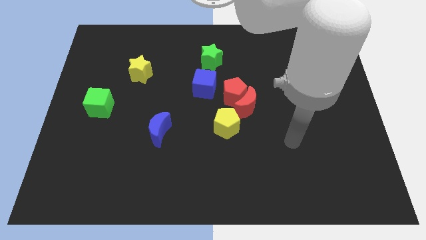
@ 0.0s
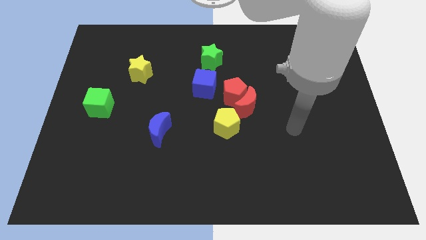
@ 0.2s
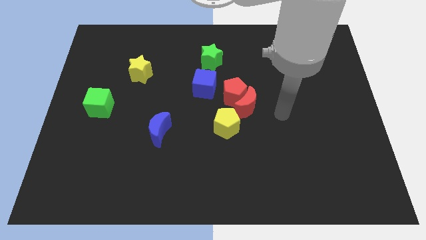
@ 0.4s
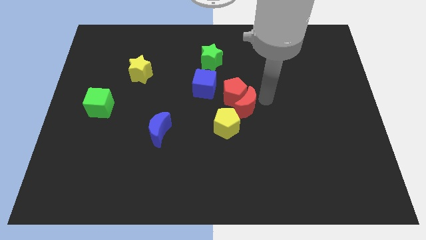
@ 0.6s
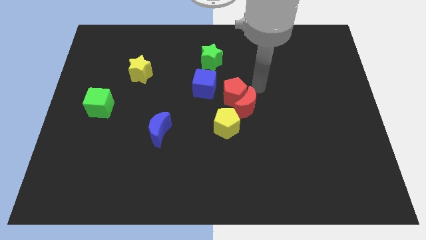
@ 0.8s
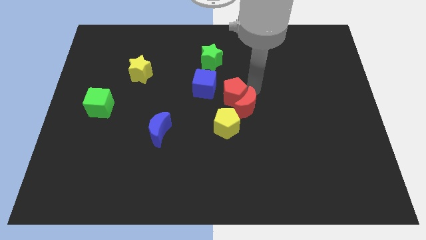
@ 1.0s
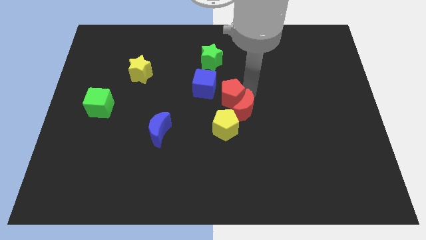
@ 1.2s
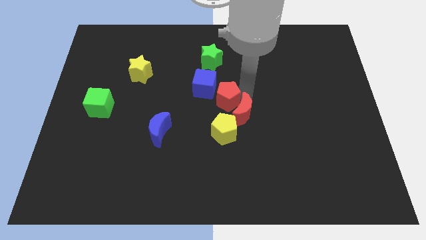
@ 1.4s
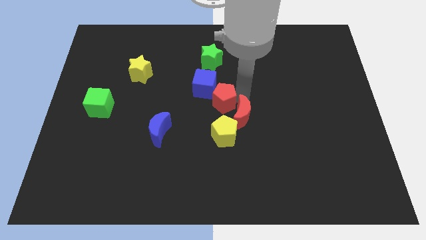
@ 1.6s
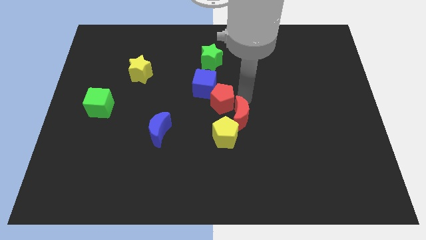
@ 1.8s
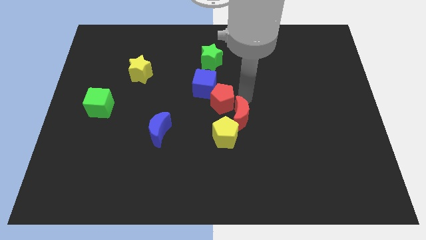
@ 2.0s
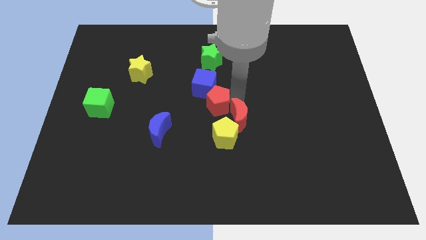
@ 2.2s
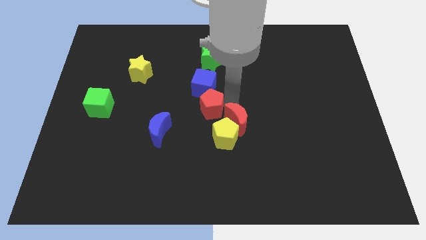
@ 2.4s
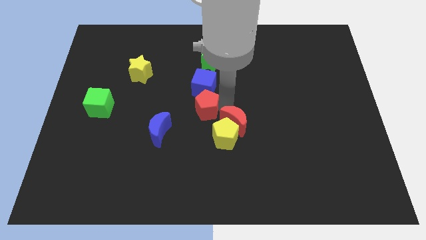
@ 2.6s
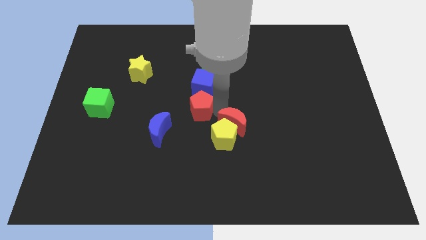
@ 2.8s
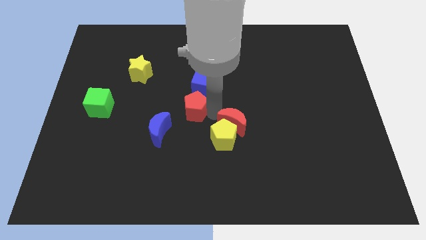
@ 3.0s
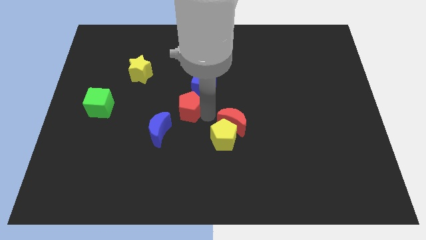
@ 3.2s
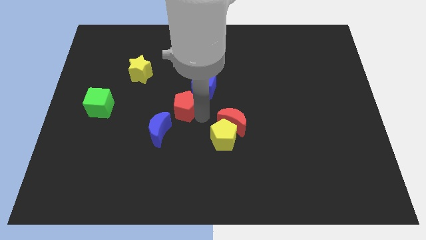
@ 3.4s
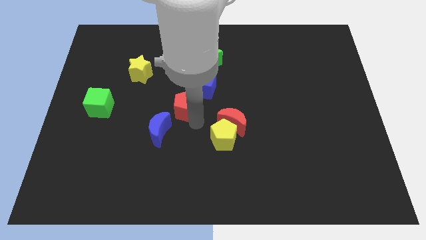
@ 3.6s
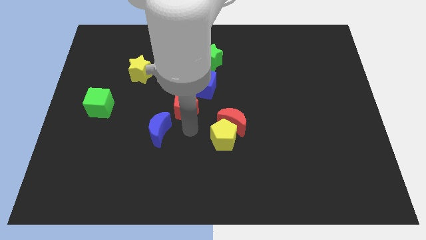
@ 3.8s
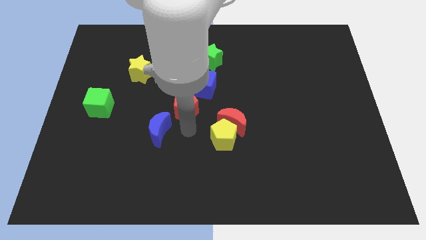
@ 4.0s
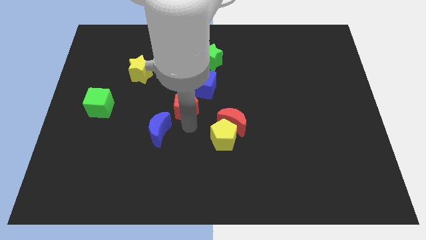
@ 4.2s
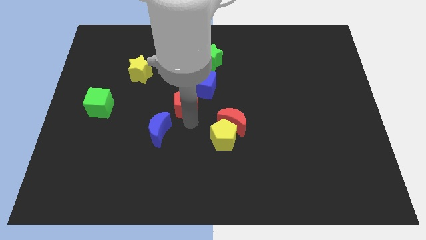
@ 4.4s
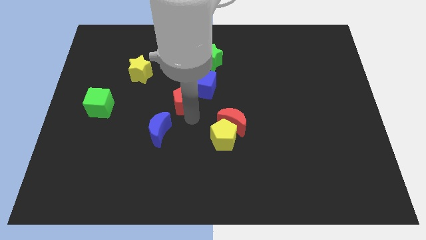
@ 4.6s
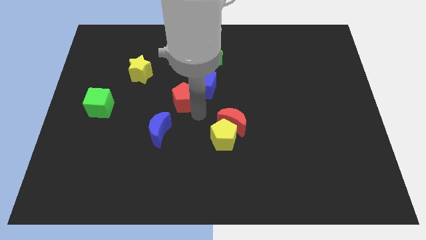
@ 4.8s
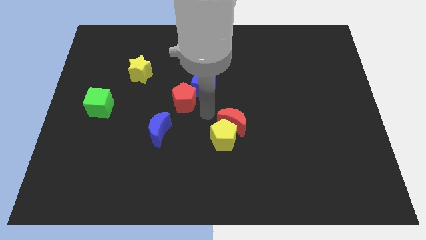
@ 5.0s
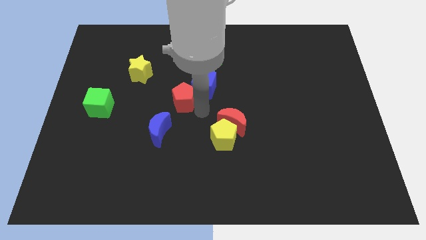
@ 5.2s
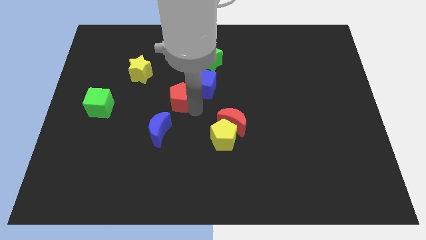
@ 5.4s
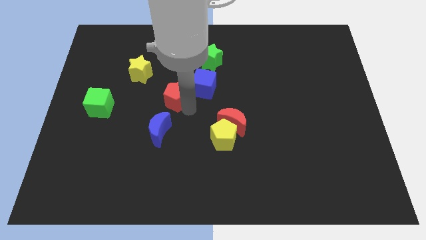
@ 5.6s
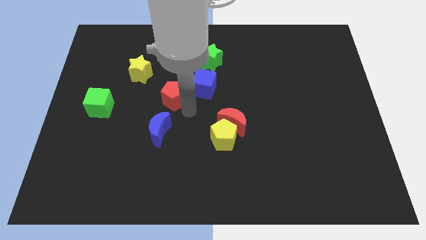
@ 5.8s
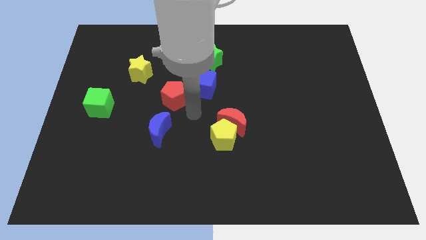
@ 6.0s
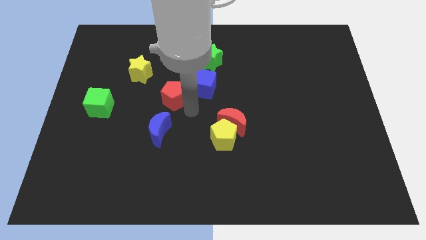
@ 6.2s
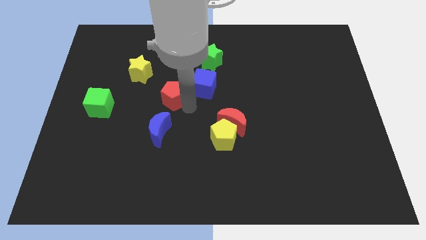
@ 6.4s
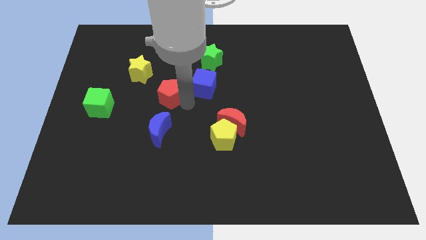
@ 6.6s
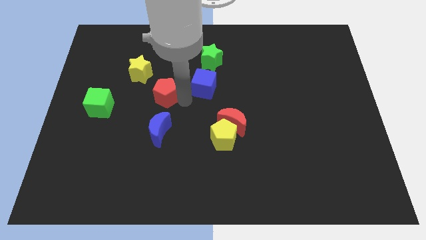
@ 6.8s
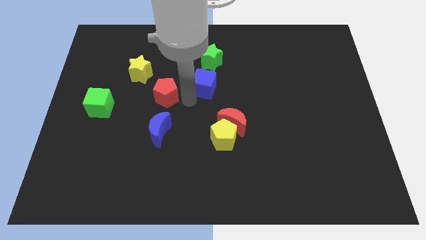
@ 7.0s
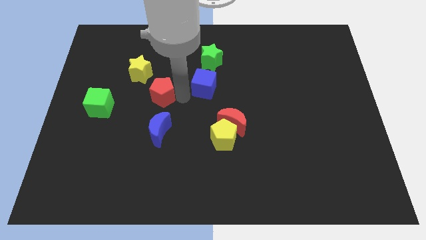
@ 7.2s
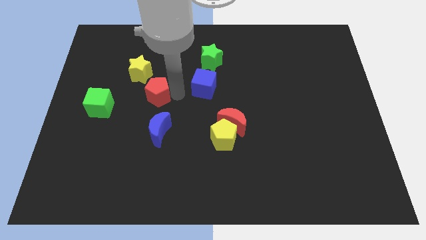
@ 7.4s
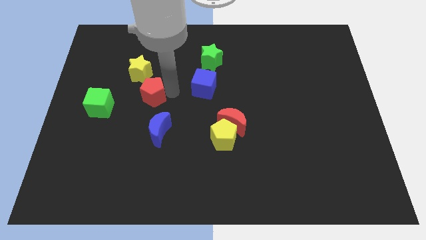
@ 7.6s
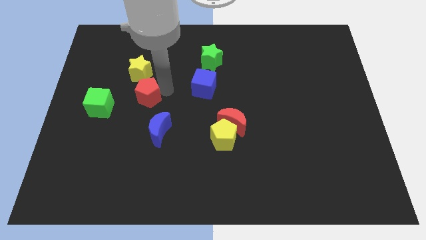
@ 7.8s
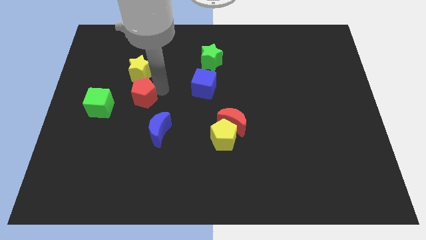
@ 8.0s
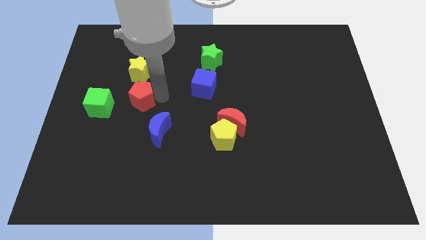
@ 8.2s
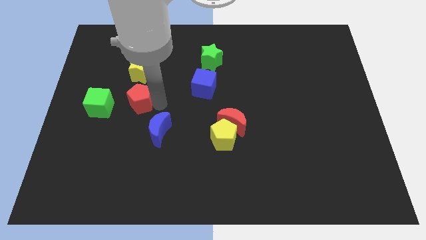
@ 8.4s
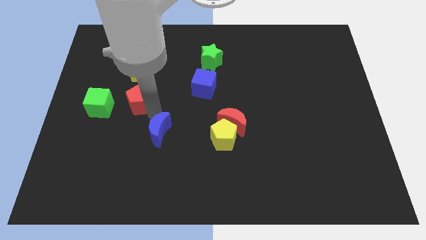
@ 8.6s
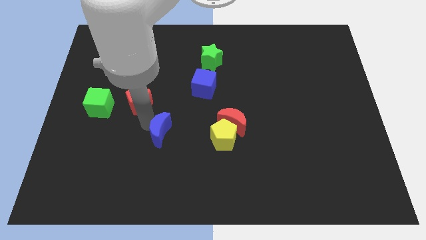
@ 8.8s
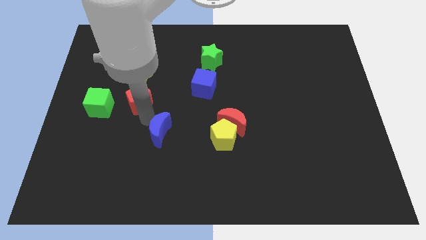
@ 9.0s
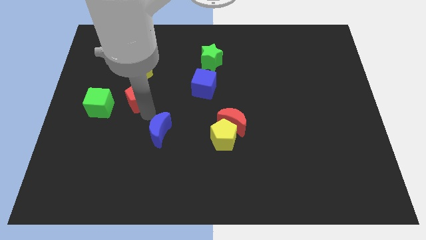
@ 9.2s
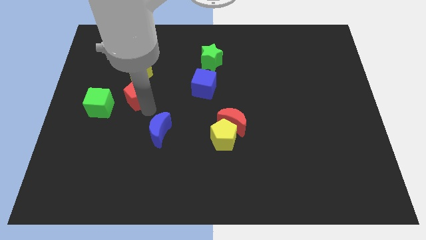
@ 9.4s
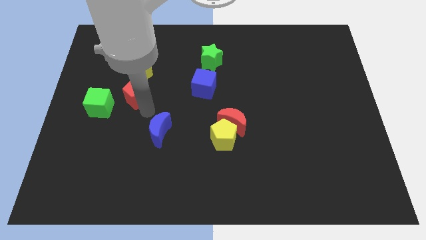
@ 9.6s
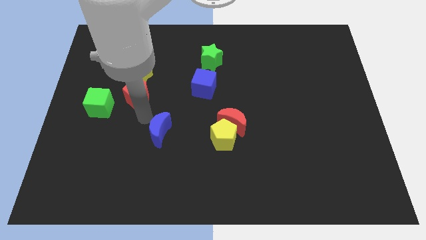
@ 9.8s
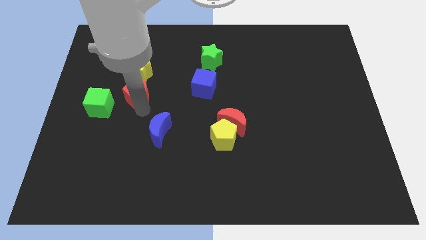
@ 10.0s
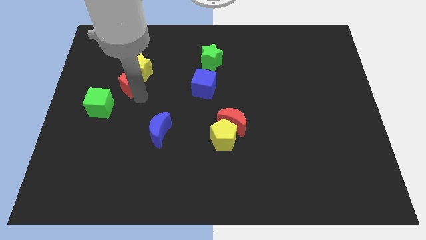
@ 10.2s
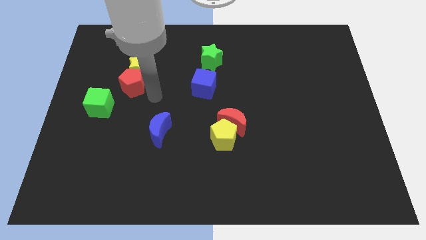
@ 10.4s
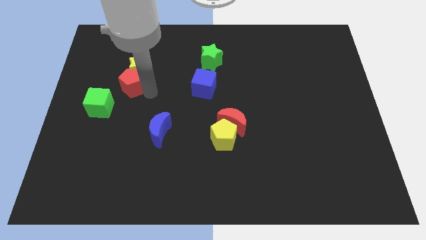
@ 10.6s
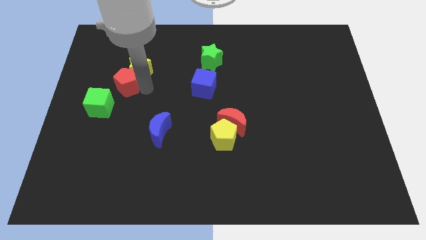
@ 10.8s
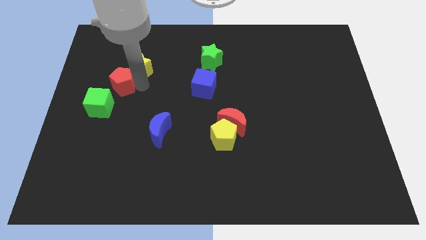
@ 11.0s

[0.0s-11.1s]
slide the red pentagon to the top side of the green cube

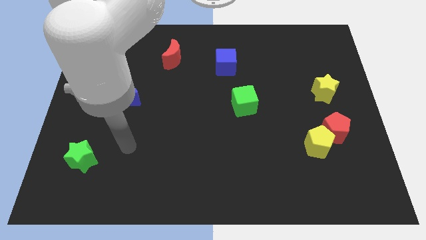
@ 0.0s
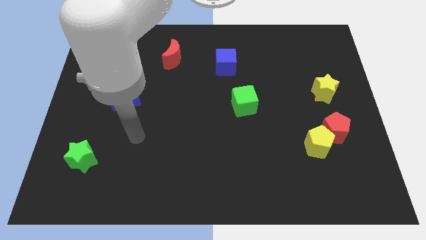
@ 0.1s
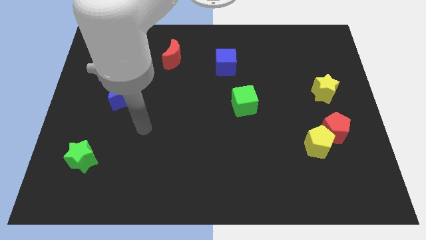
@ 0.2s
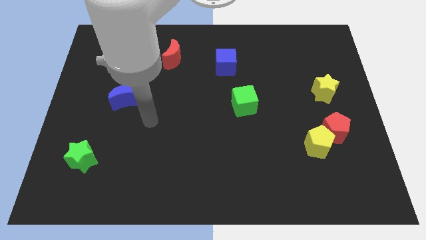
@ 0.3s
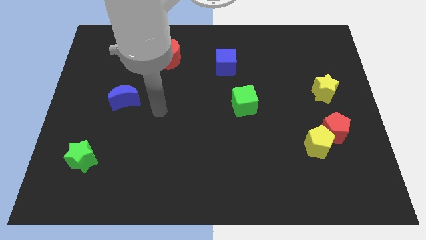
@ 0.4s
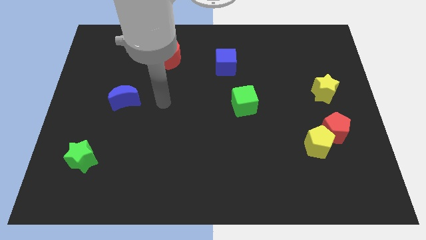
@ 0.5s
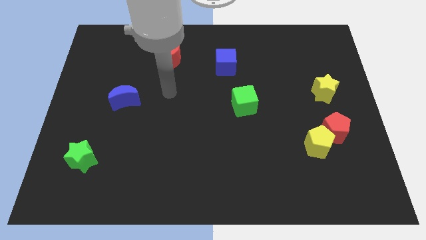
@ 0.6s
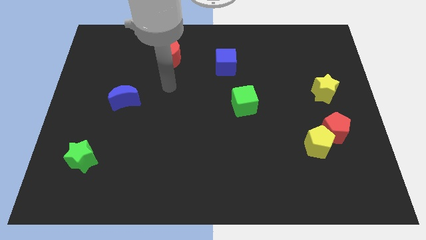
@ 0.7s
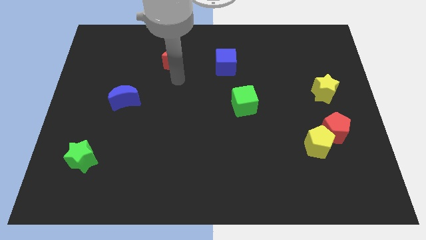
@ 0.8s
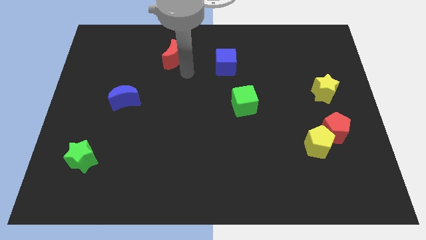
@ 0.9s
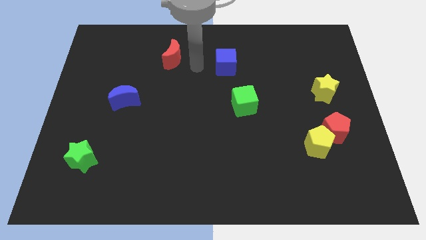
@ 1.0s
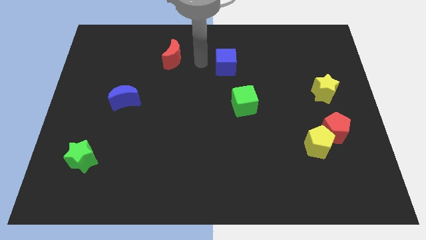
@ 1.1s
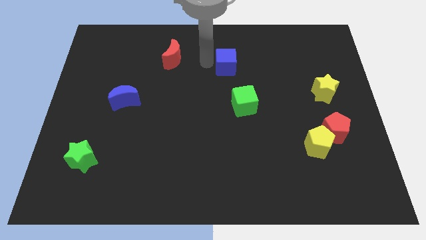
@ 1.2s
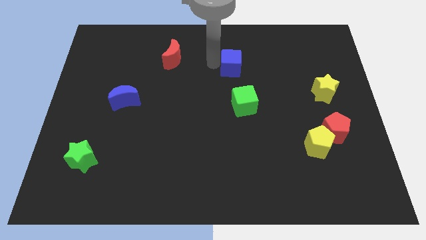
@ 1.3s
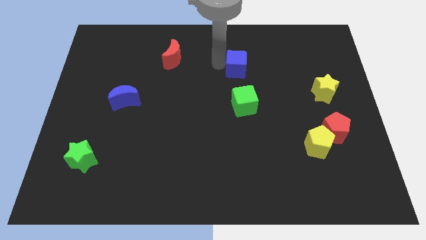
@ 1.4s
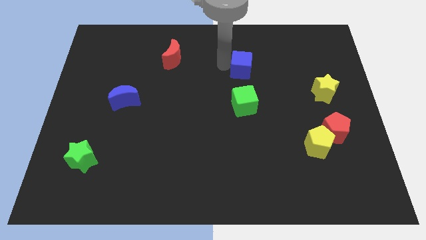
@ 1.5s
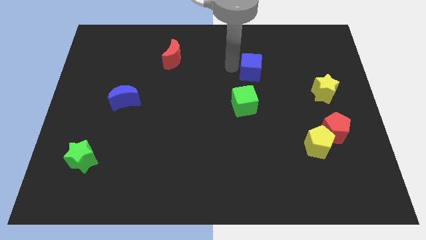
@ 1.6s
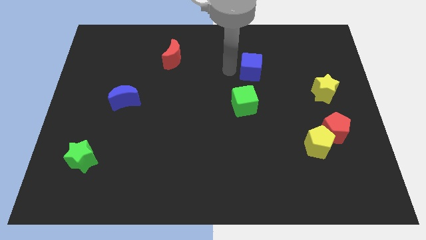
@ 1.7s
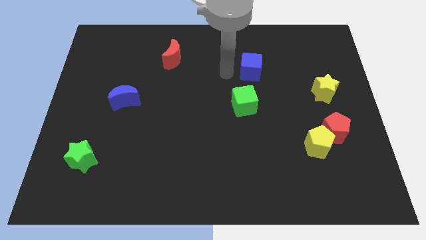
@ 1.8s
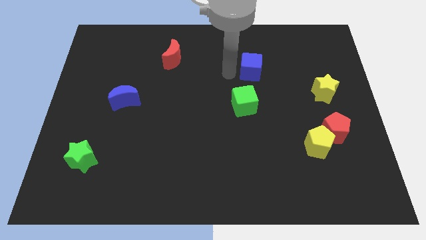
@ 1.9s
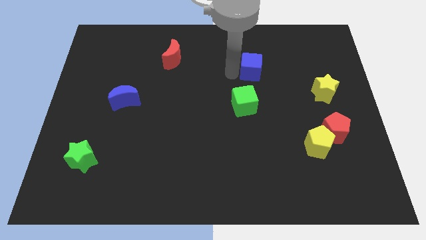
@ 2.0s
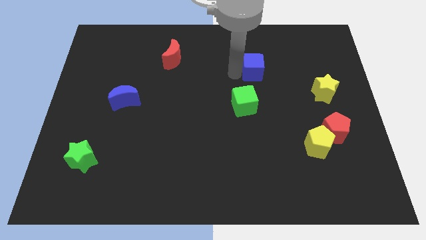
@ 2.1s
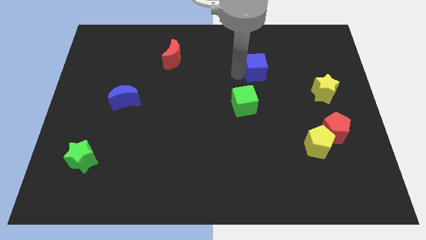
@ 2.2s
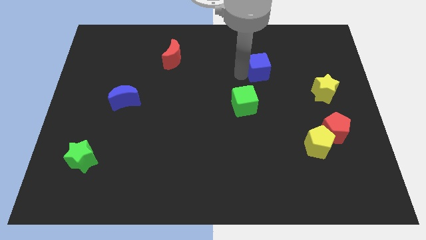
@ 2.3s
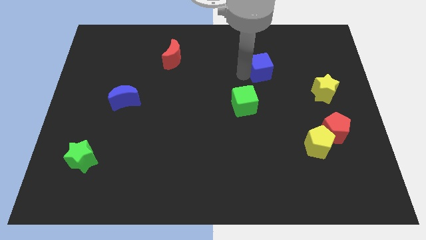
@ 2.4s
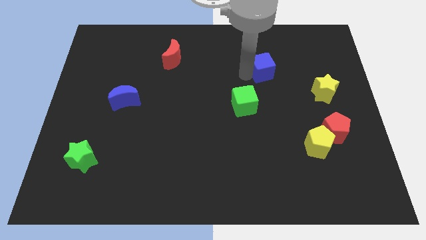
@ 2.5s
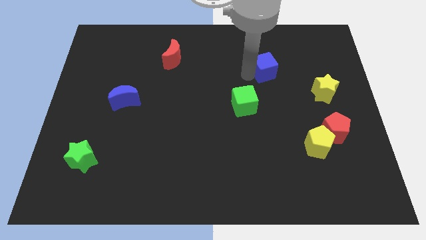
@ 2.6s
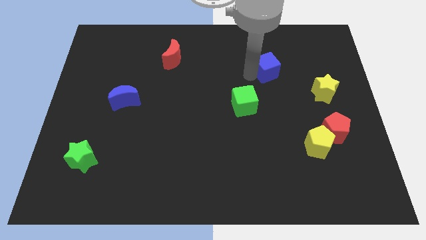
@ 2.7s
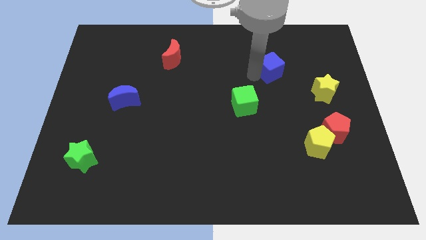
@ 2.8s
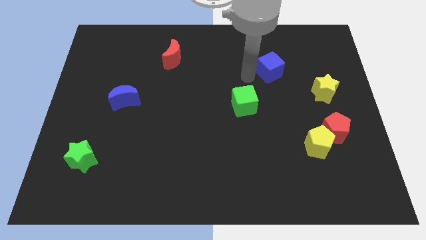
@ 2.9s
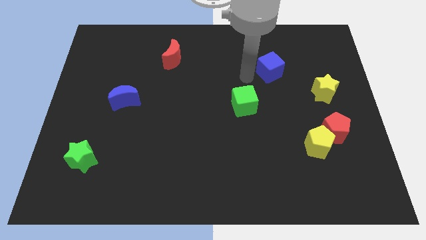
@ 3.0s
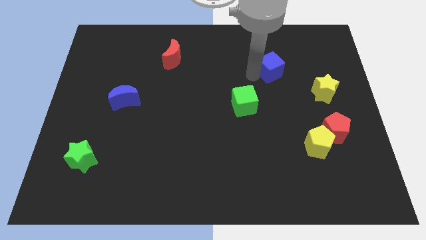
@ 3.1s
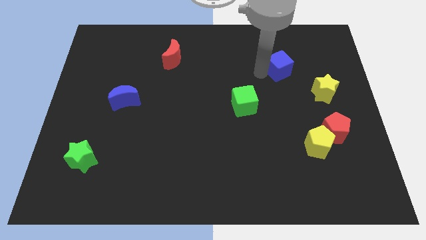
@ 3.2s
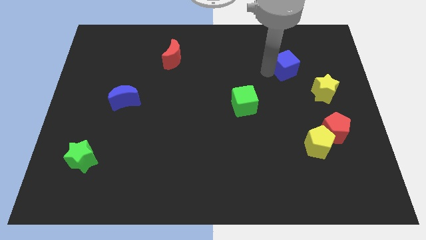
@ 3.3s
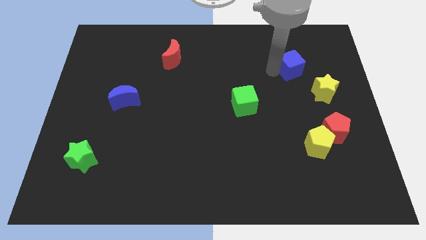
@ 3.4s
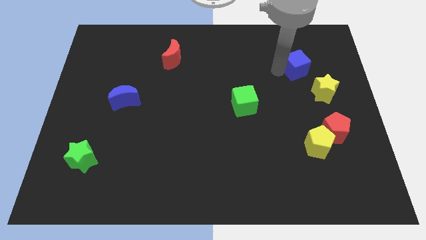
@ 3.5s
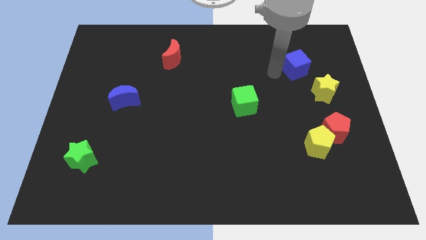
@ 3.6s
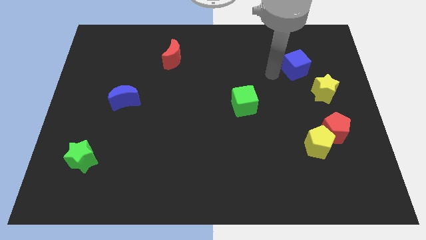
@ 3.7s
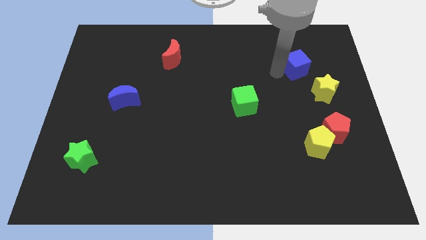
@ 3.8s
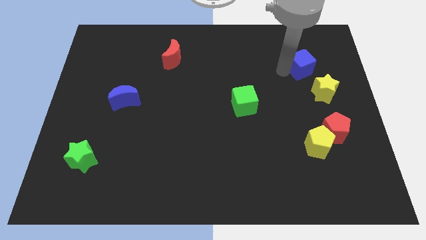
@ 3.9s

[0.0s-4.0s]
put the blue cube to the top of the yellow star
